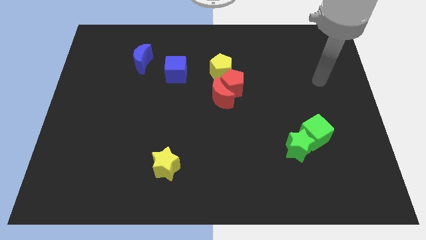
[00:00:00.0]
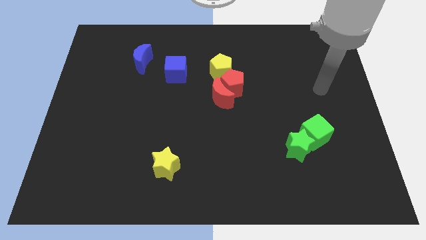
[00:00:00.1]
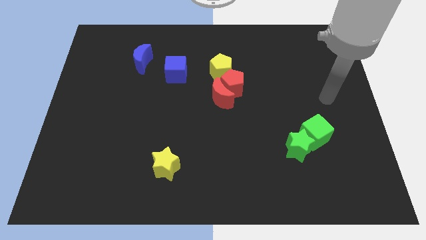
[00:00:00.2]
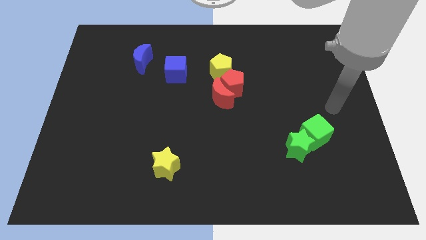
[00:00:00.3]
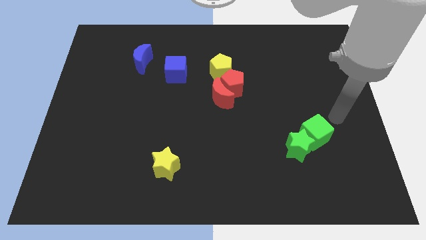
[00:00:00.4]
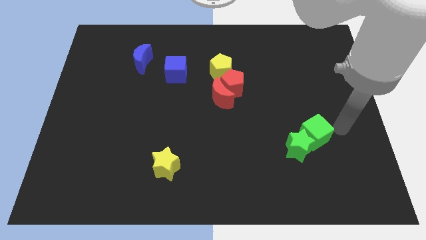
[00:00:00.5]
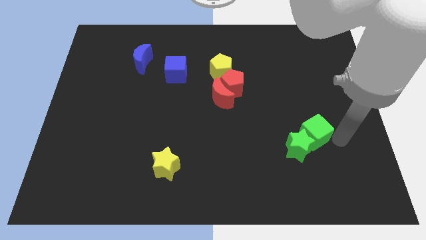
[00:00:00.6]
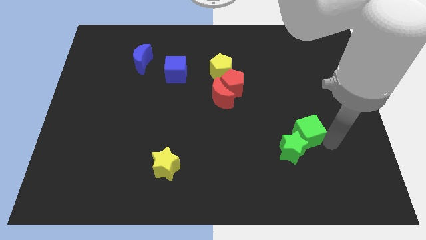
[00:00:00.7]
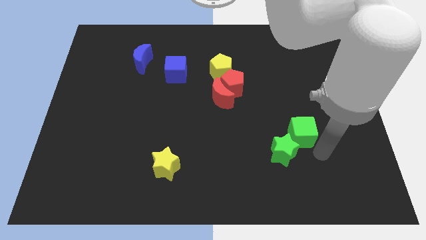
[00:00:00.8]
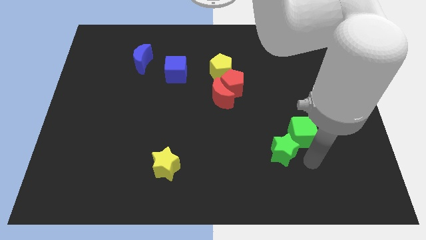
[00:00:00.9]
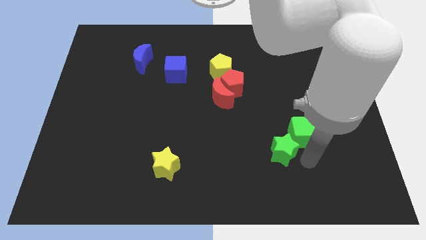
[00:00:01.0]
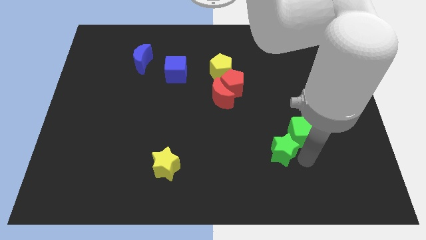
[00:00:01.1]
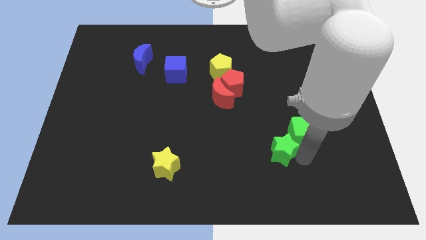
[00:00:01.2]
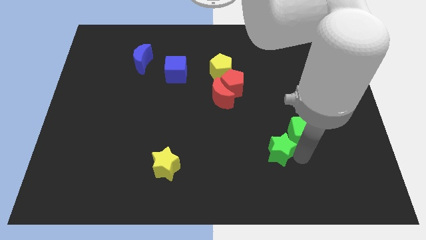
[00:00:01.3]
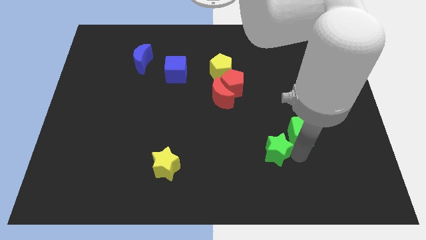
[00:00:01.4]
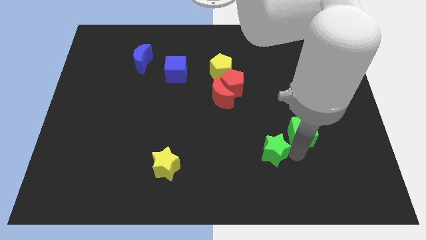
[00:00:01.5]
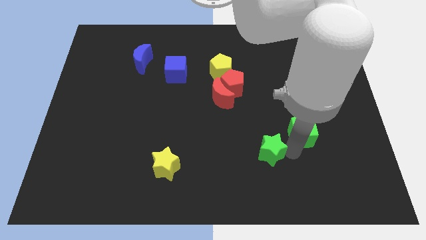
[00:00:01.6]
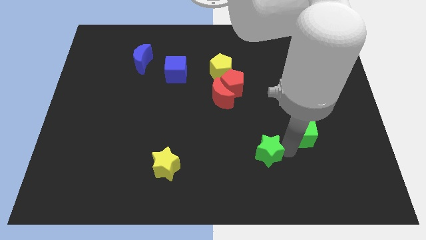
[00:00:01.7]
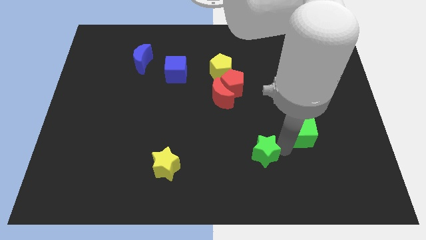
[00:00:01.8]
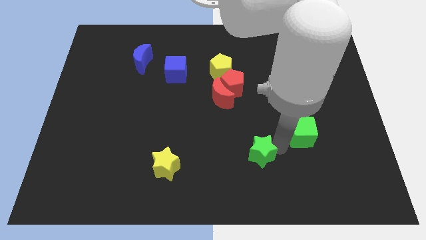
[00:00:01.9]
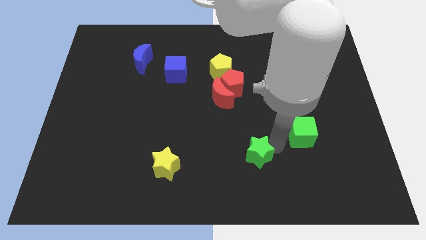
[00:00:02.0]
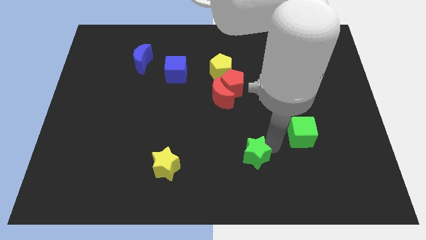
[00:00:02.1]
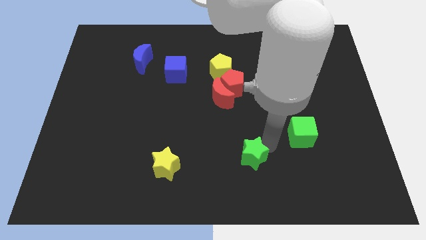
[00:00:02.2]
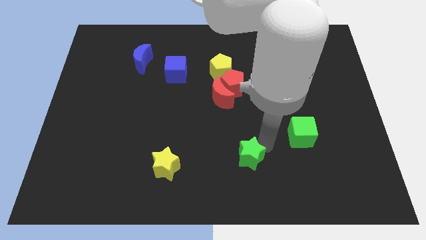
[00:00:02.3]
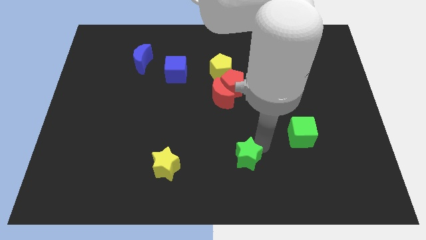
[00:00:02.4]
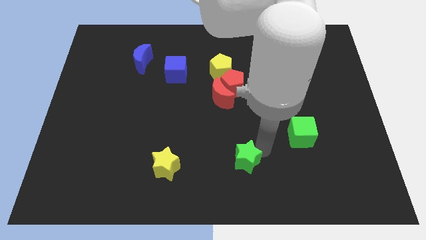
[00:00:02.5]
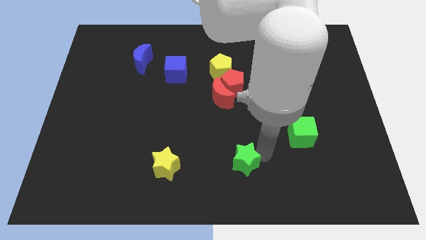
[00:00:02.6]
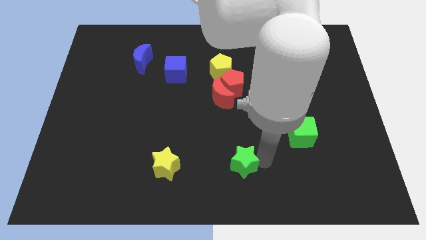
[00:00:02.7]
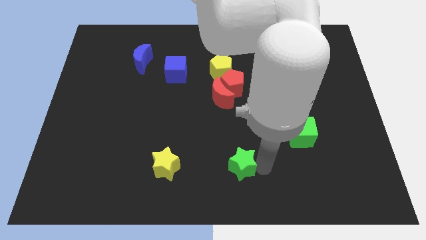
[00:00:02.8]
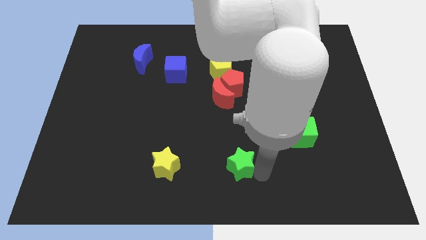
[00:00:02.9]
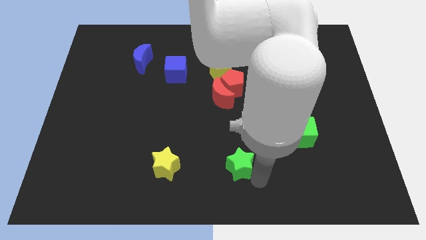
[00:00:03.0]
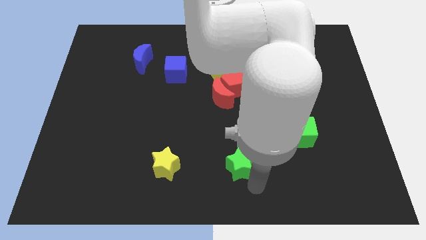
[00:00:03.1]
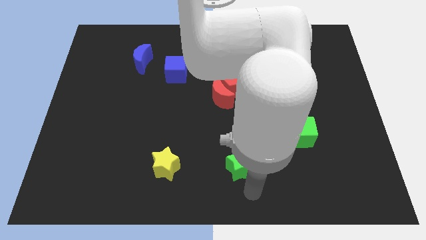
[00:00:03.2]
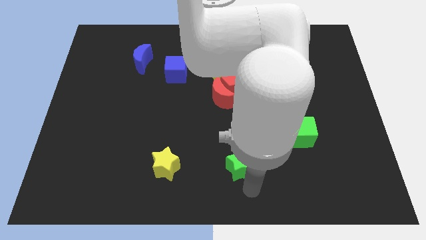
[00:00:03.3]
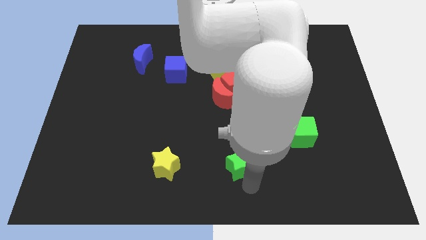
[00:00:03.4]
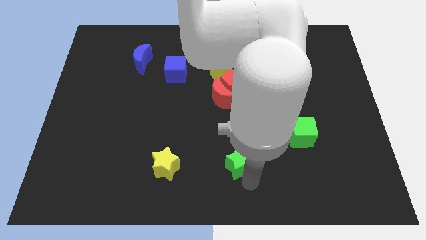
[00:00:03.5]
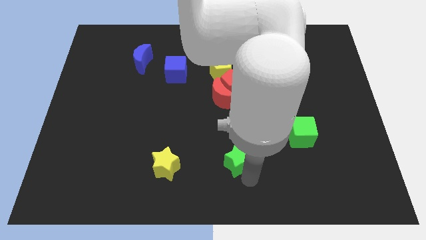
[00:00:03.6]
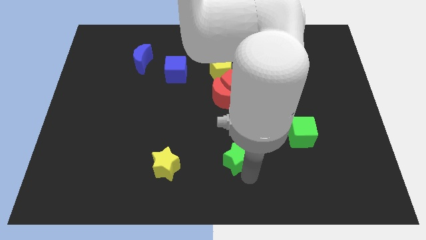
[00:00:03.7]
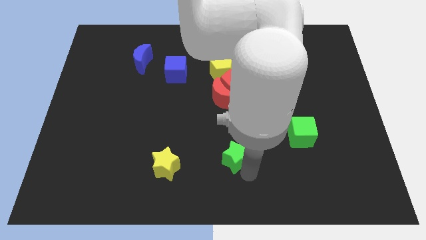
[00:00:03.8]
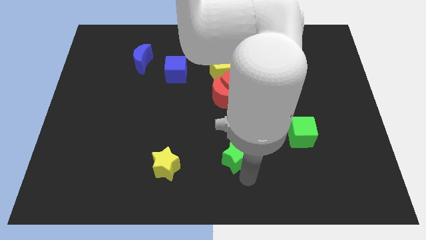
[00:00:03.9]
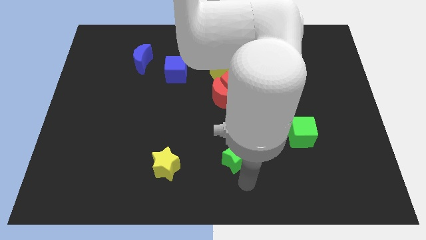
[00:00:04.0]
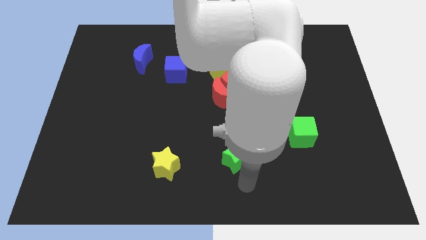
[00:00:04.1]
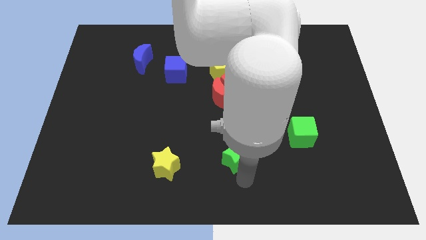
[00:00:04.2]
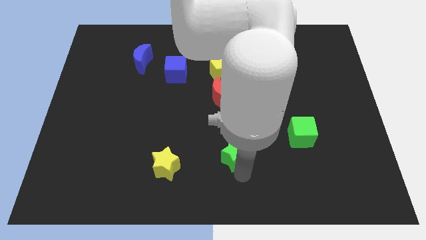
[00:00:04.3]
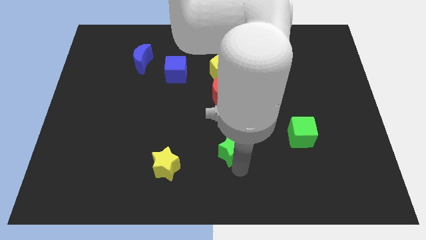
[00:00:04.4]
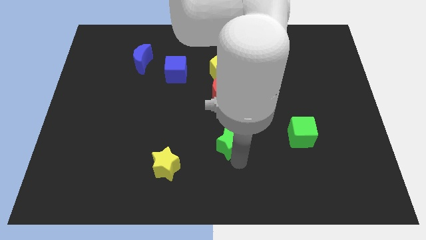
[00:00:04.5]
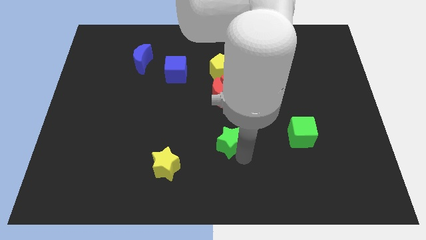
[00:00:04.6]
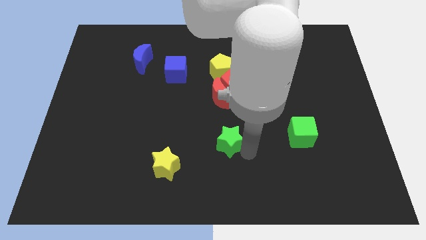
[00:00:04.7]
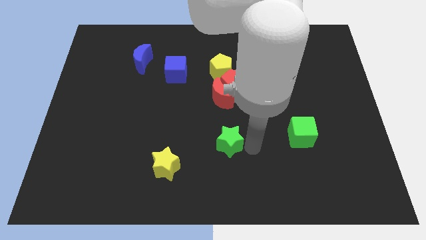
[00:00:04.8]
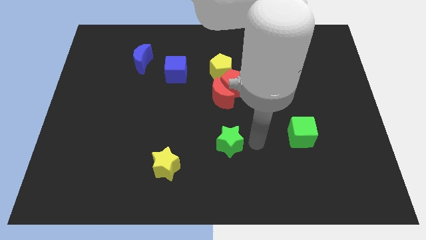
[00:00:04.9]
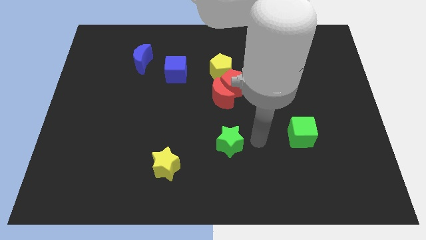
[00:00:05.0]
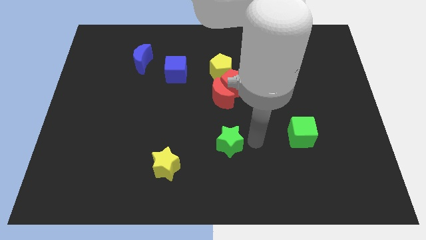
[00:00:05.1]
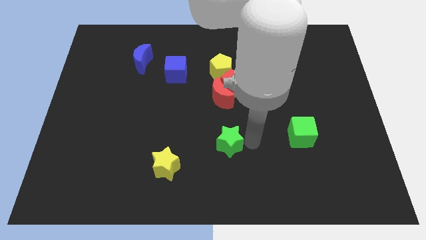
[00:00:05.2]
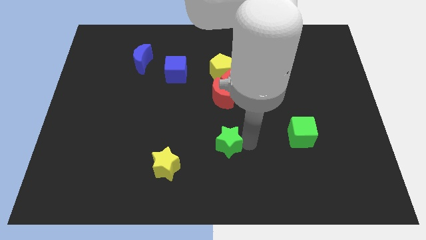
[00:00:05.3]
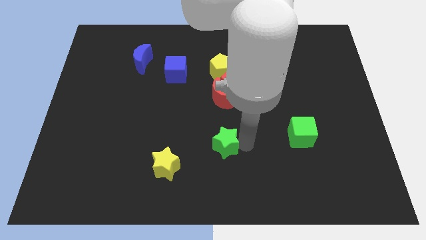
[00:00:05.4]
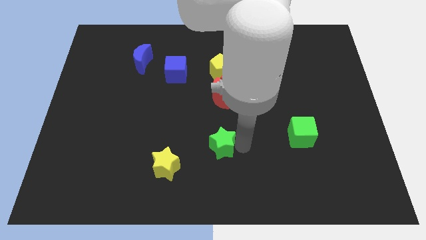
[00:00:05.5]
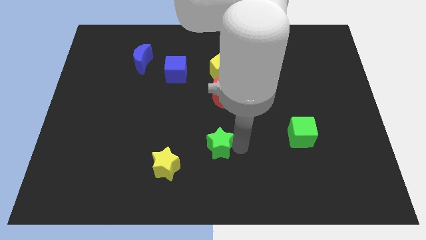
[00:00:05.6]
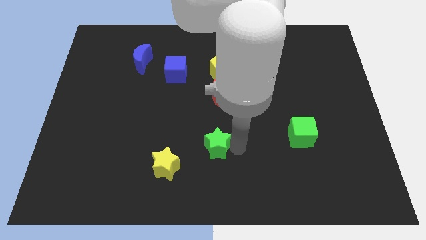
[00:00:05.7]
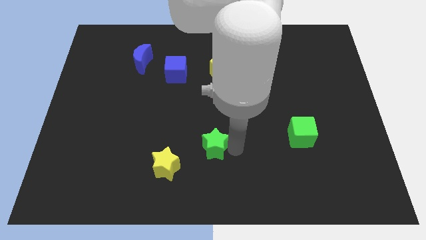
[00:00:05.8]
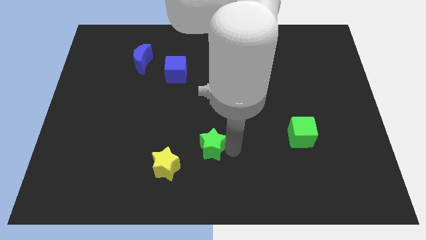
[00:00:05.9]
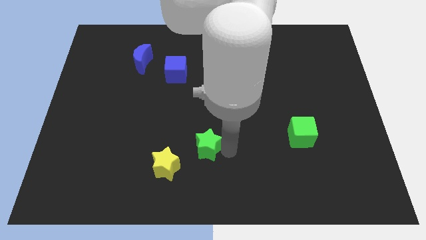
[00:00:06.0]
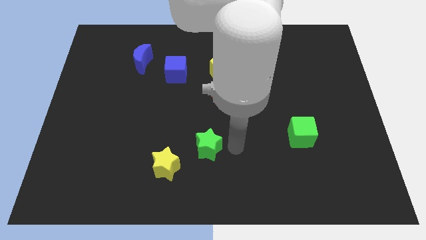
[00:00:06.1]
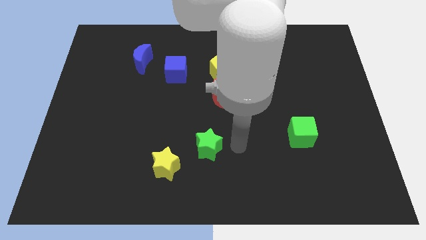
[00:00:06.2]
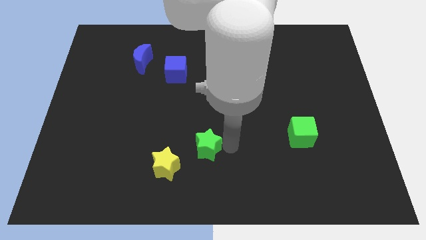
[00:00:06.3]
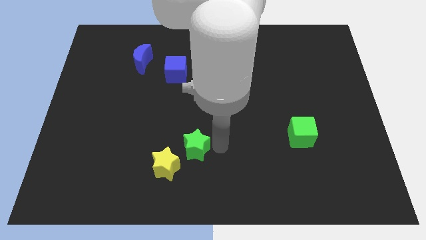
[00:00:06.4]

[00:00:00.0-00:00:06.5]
slide the green star left

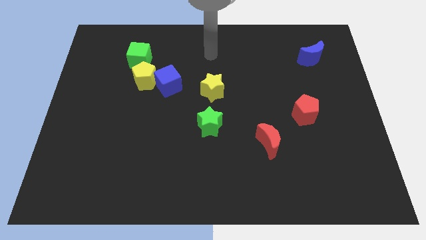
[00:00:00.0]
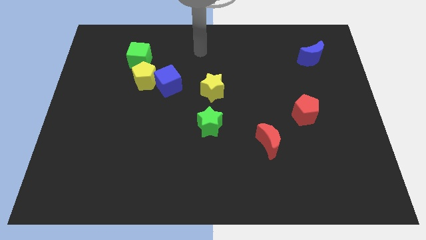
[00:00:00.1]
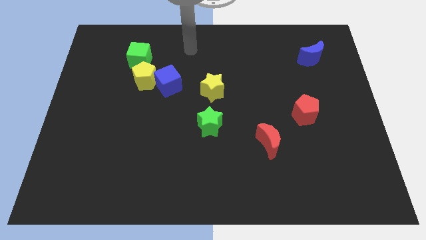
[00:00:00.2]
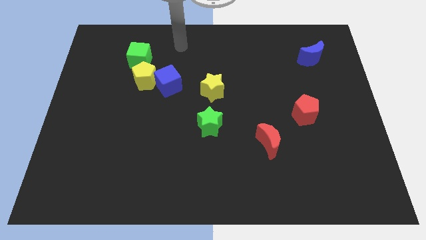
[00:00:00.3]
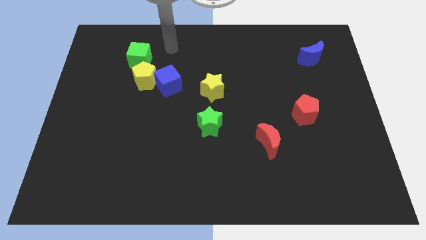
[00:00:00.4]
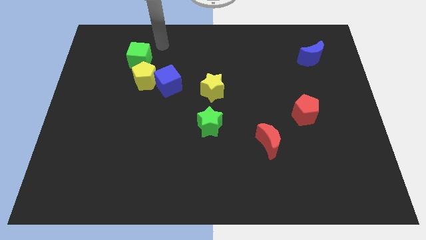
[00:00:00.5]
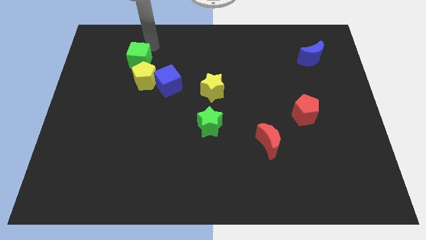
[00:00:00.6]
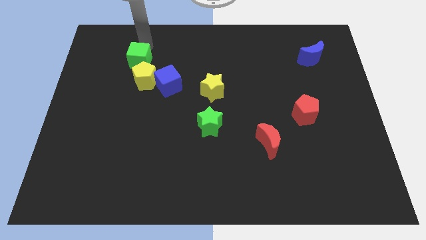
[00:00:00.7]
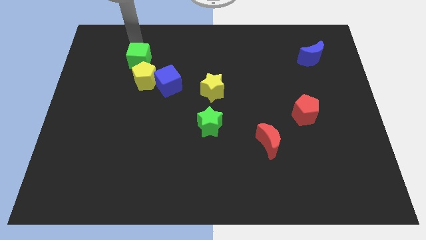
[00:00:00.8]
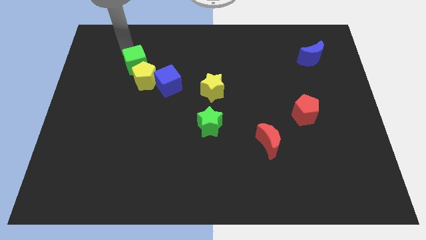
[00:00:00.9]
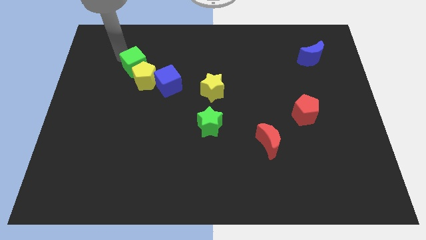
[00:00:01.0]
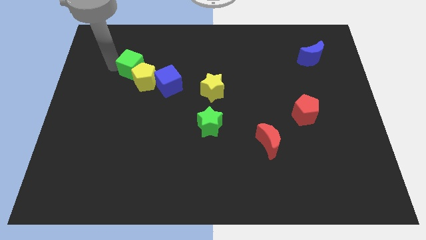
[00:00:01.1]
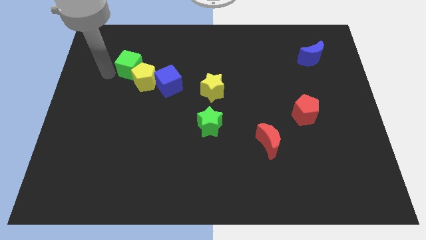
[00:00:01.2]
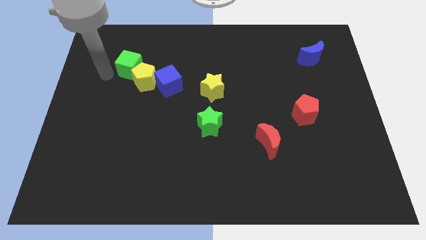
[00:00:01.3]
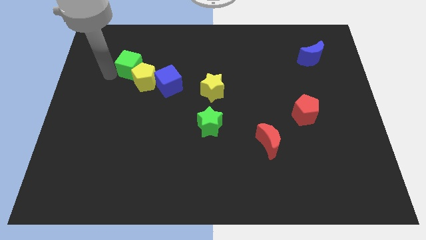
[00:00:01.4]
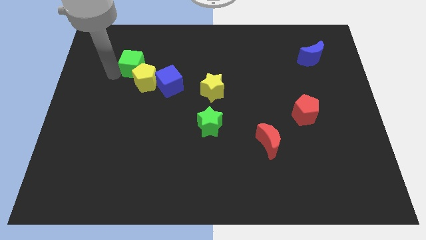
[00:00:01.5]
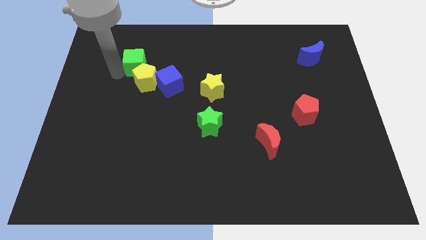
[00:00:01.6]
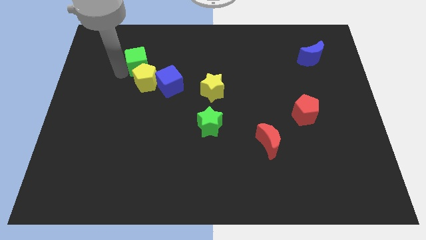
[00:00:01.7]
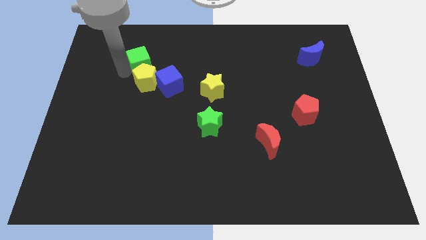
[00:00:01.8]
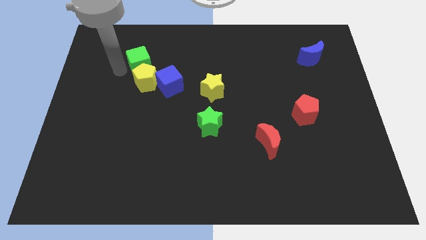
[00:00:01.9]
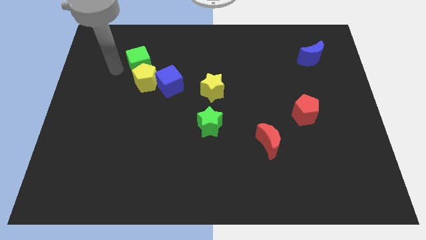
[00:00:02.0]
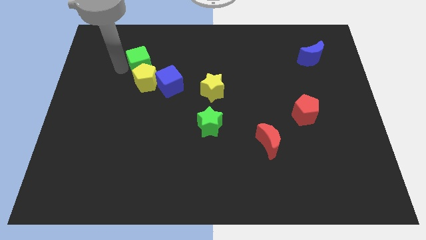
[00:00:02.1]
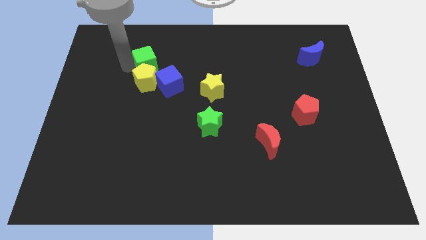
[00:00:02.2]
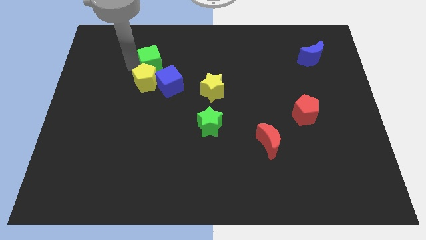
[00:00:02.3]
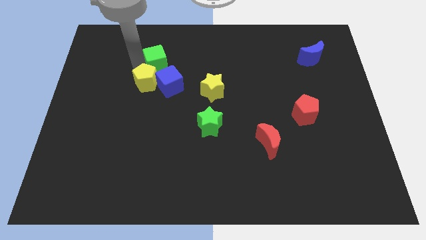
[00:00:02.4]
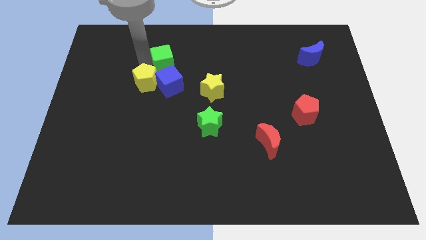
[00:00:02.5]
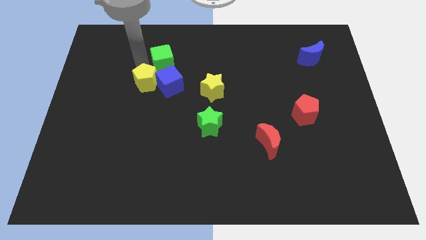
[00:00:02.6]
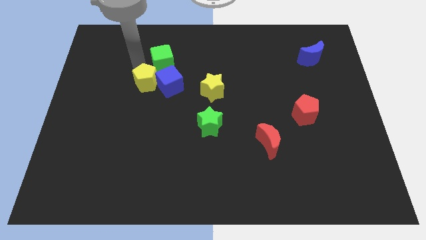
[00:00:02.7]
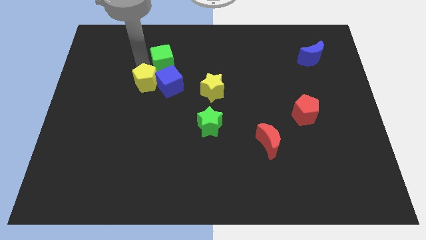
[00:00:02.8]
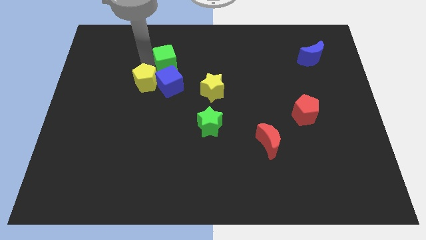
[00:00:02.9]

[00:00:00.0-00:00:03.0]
push the green cube right somewhat
